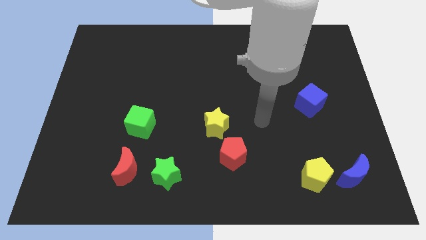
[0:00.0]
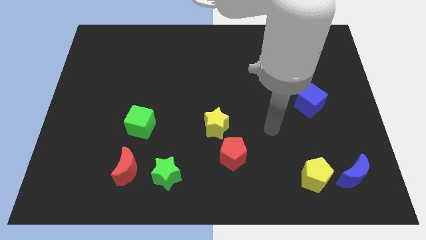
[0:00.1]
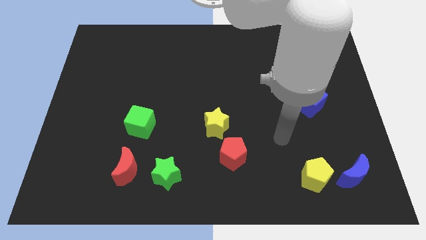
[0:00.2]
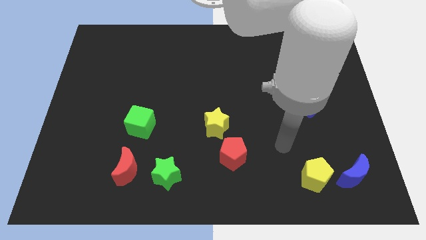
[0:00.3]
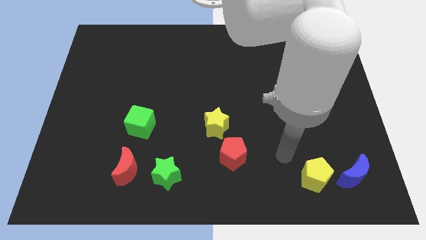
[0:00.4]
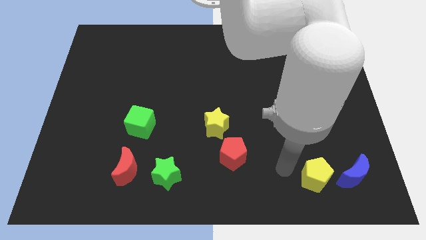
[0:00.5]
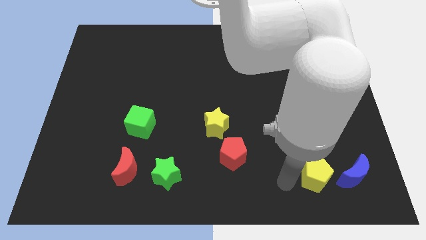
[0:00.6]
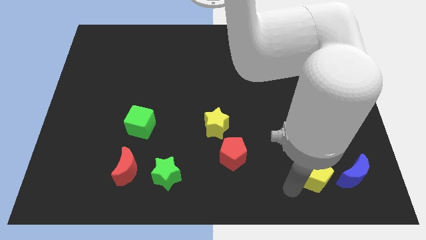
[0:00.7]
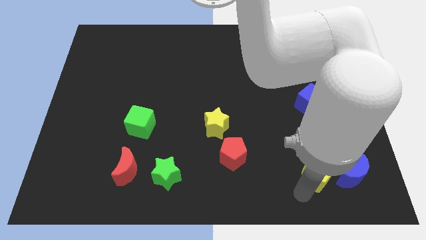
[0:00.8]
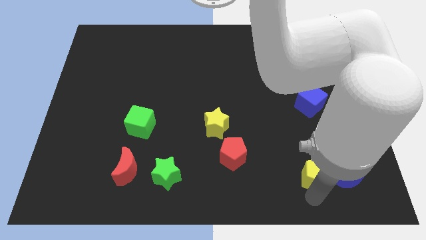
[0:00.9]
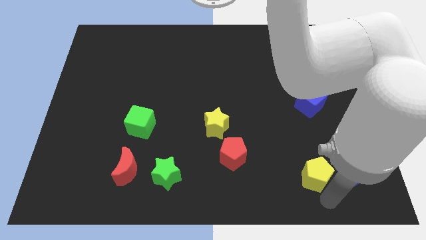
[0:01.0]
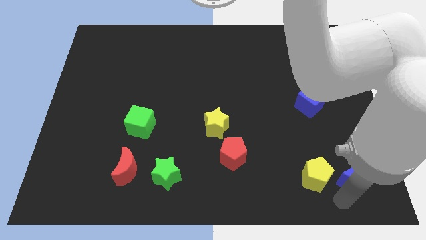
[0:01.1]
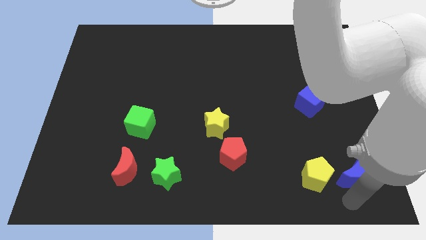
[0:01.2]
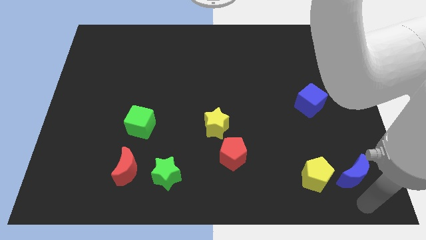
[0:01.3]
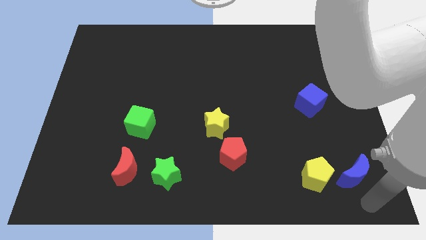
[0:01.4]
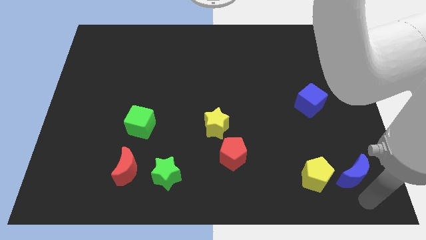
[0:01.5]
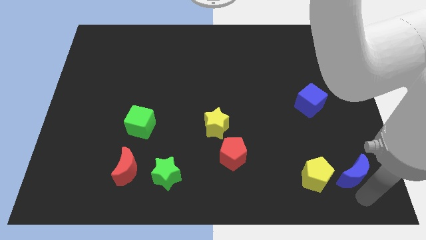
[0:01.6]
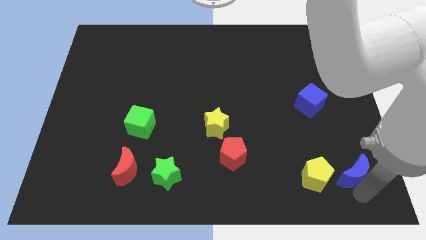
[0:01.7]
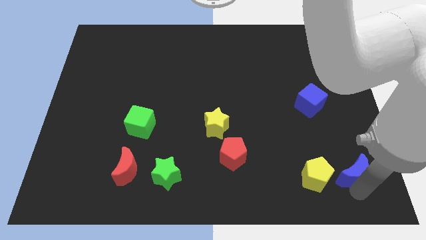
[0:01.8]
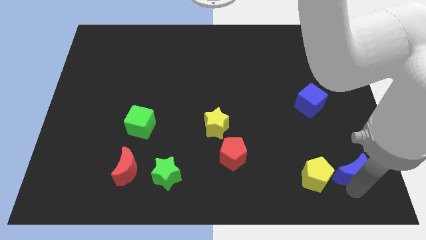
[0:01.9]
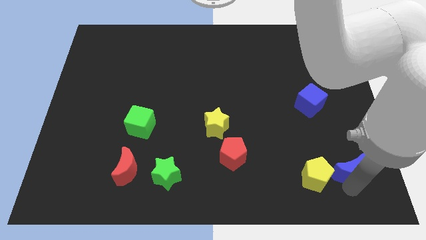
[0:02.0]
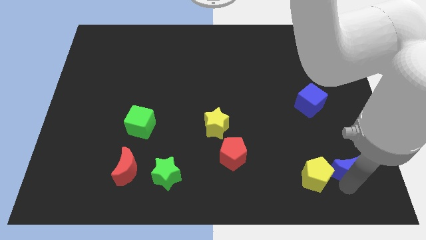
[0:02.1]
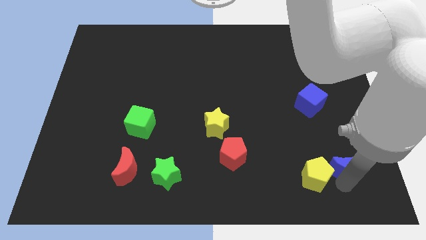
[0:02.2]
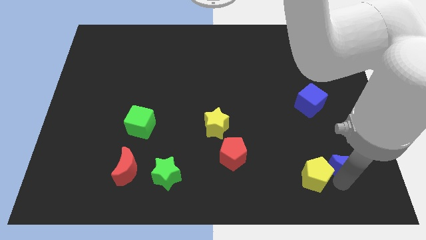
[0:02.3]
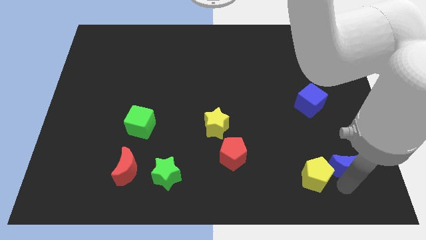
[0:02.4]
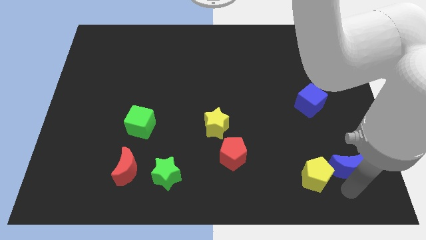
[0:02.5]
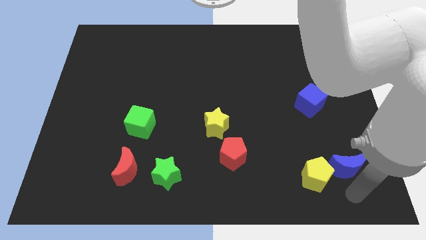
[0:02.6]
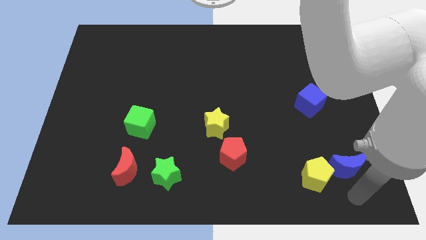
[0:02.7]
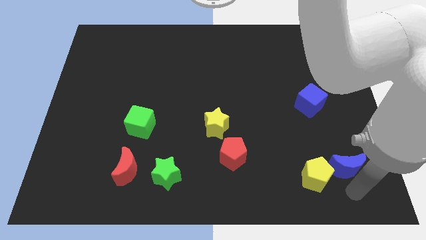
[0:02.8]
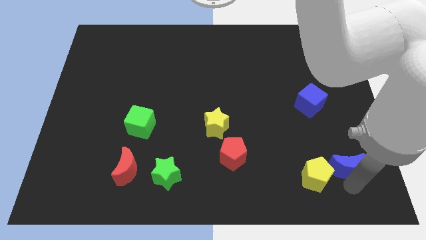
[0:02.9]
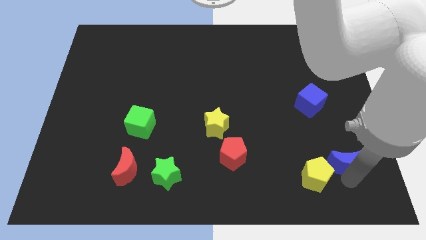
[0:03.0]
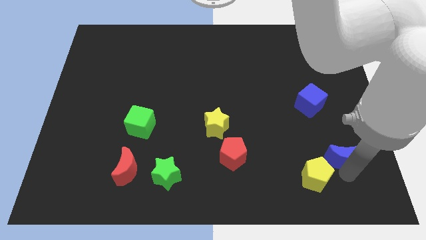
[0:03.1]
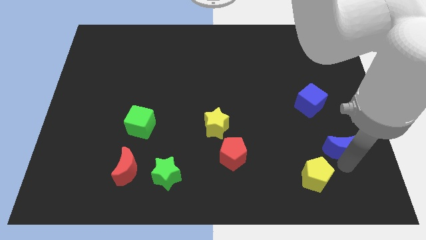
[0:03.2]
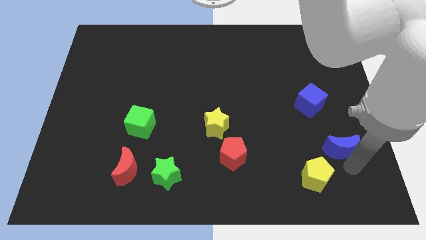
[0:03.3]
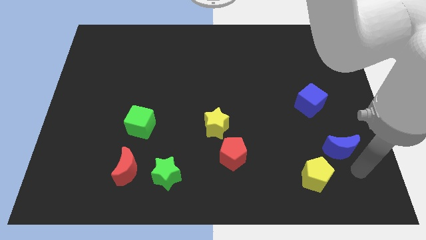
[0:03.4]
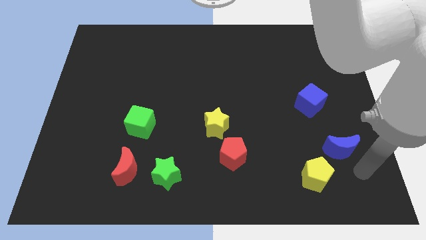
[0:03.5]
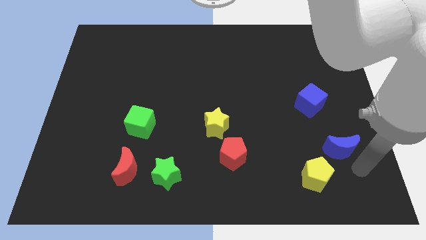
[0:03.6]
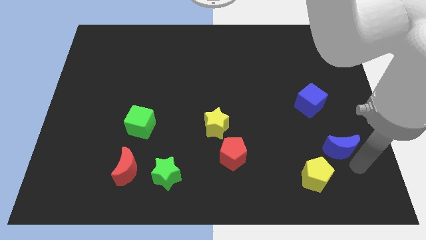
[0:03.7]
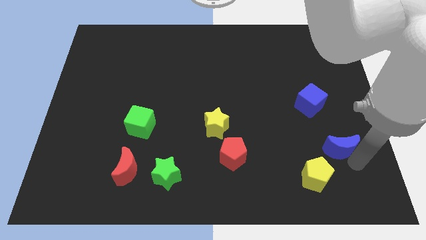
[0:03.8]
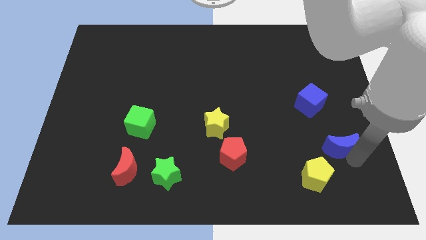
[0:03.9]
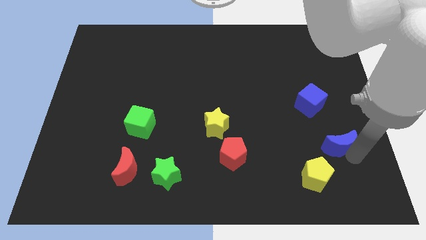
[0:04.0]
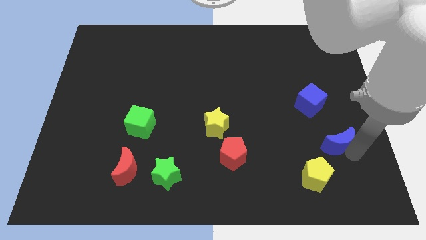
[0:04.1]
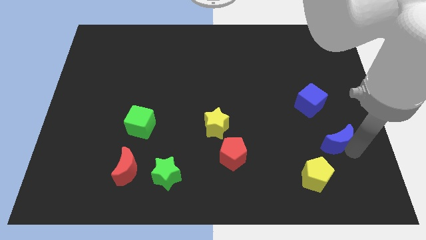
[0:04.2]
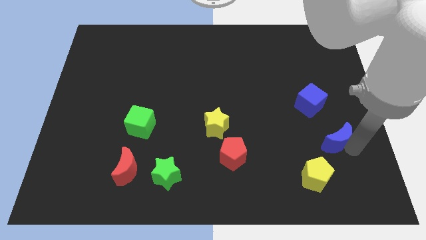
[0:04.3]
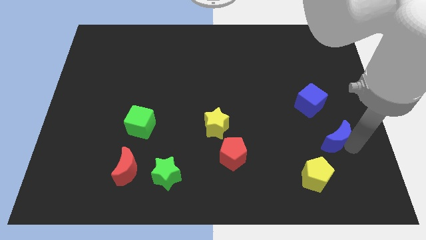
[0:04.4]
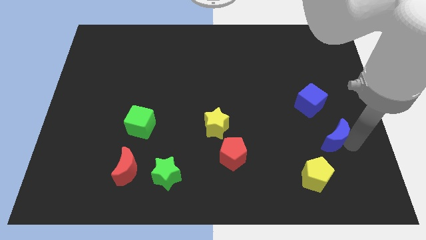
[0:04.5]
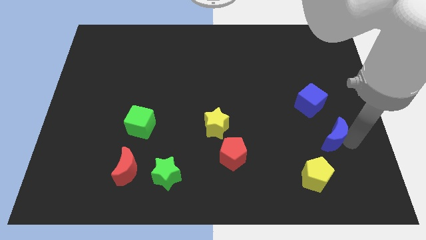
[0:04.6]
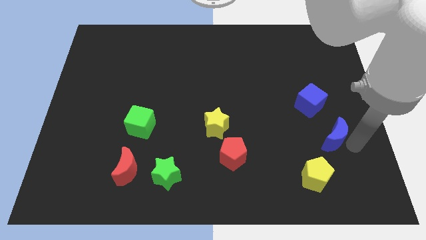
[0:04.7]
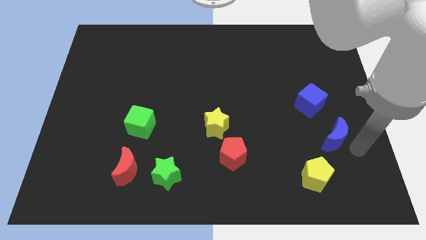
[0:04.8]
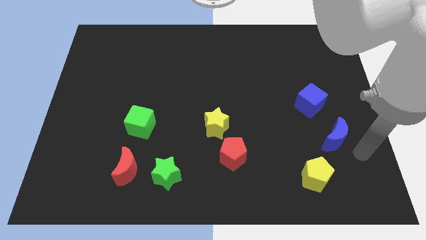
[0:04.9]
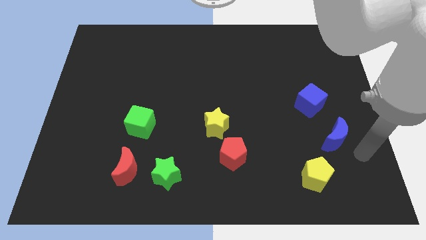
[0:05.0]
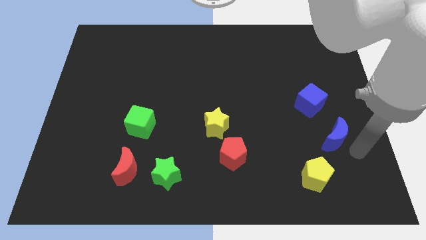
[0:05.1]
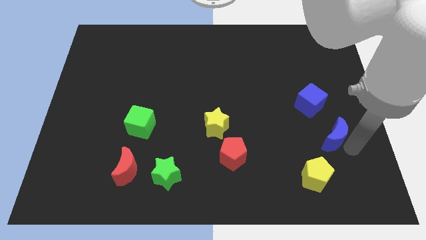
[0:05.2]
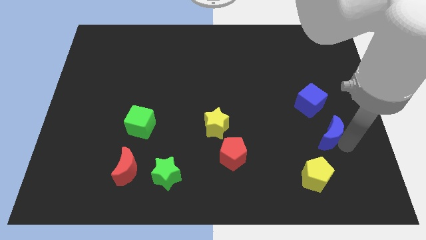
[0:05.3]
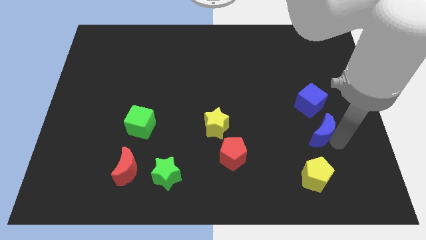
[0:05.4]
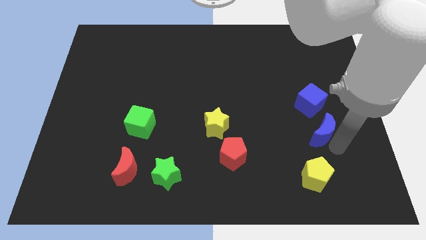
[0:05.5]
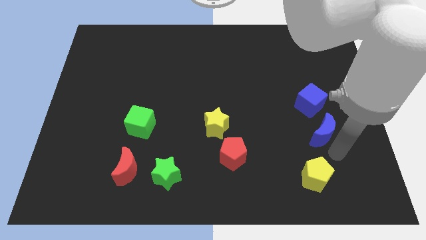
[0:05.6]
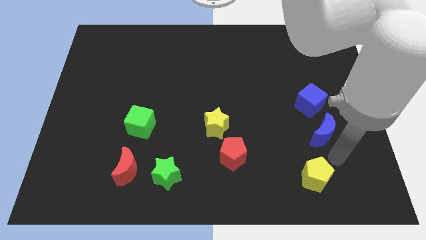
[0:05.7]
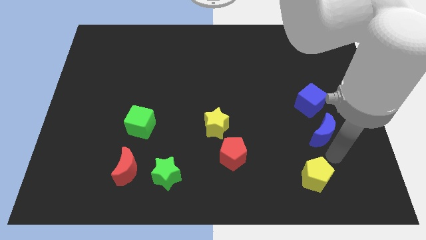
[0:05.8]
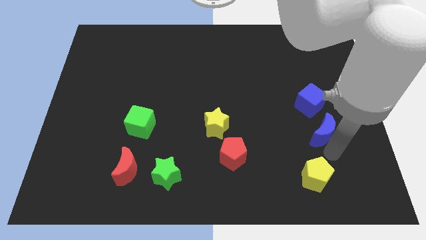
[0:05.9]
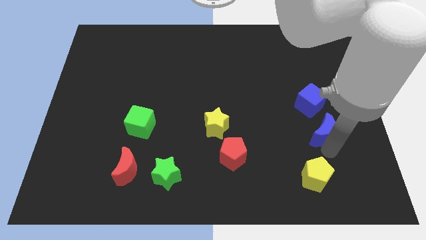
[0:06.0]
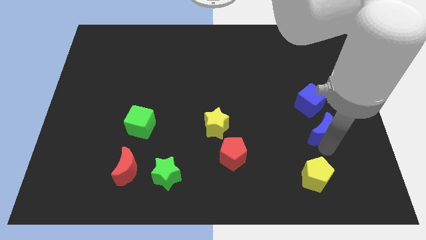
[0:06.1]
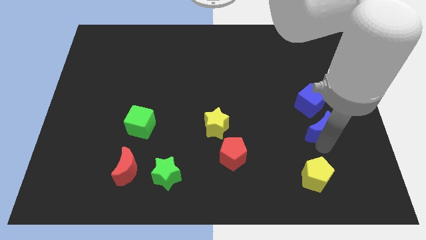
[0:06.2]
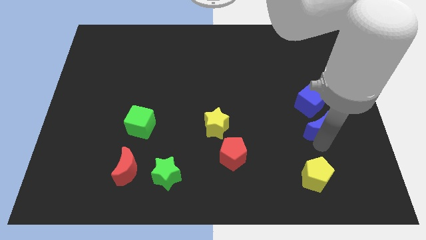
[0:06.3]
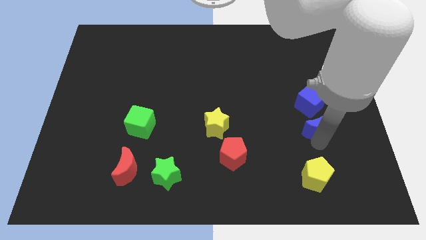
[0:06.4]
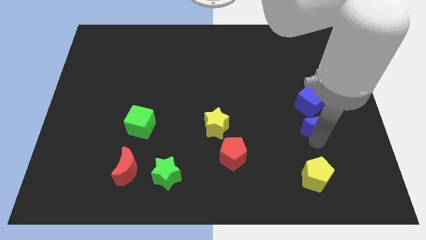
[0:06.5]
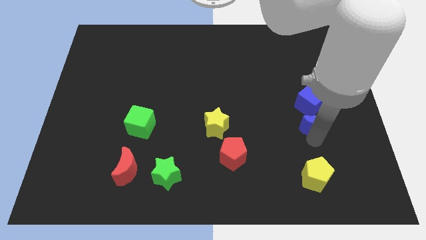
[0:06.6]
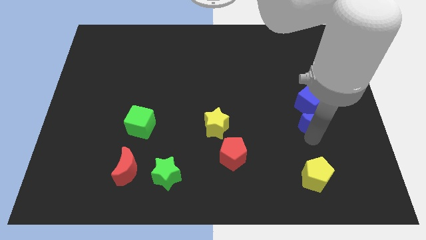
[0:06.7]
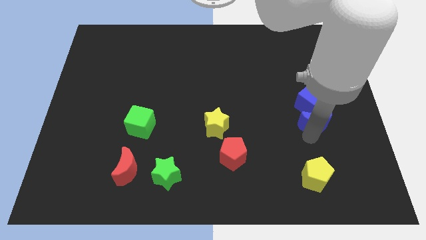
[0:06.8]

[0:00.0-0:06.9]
push the blue moon to the blue cube
